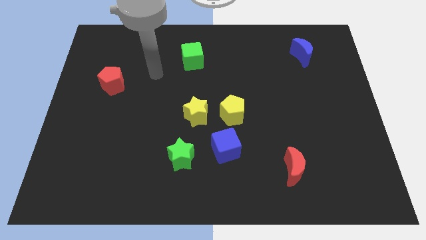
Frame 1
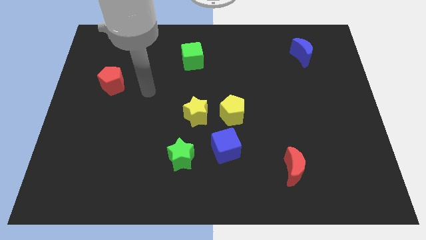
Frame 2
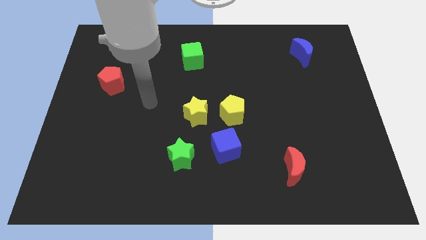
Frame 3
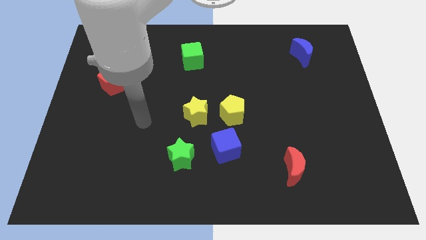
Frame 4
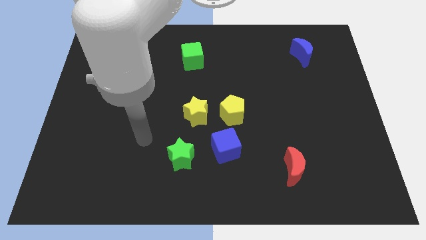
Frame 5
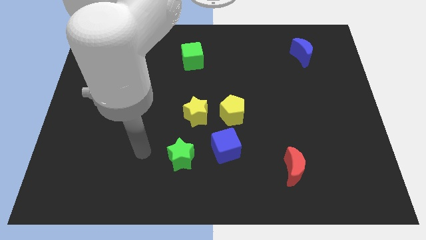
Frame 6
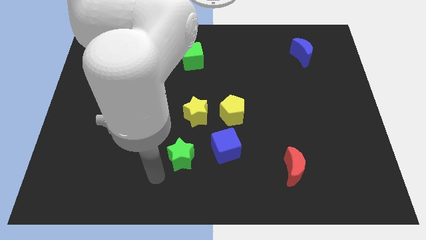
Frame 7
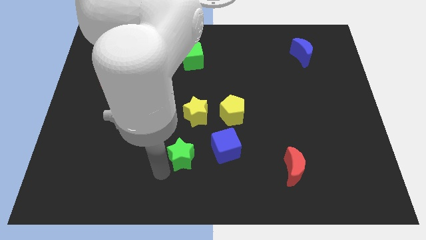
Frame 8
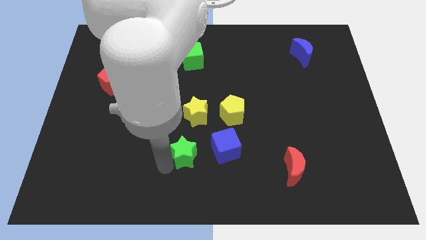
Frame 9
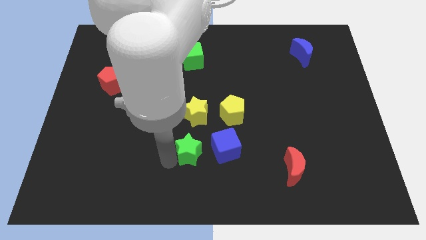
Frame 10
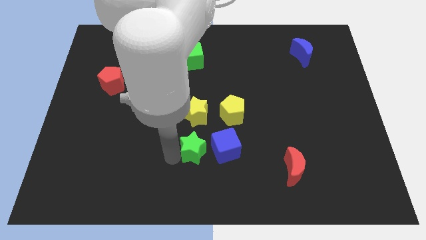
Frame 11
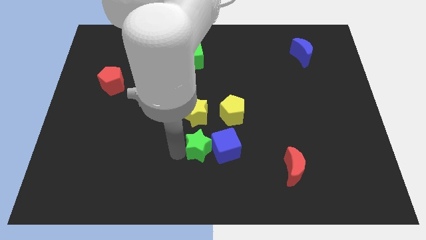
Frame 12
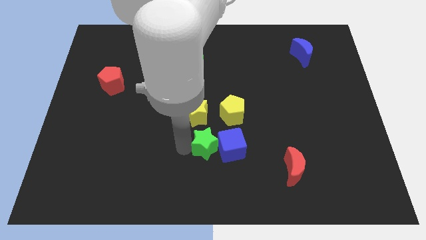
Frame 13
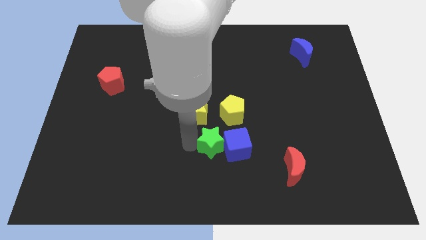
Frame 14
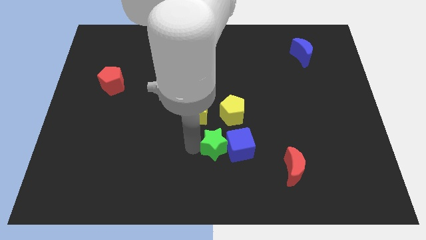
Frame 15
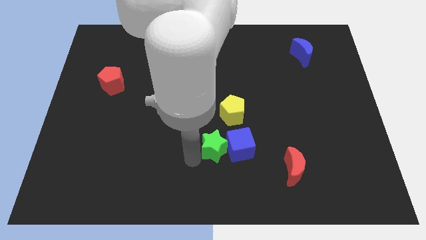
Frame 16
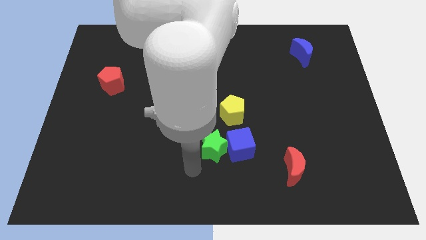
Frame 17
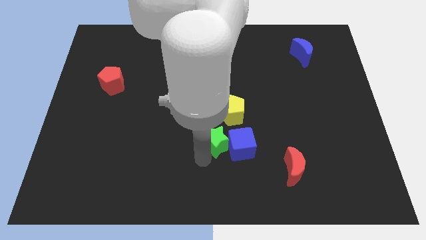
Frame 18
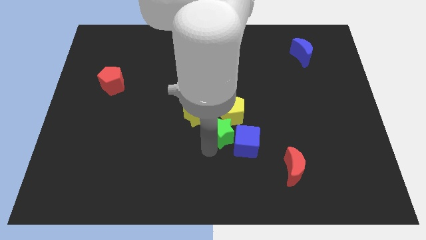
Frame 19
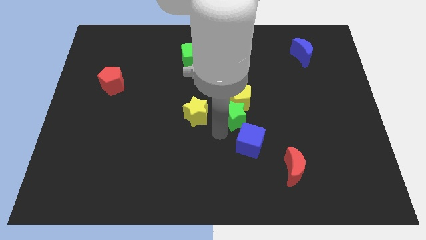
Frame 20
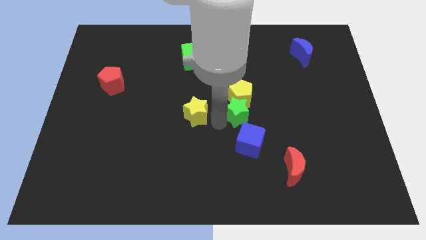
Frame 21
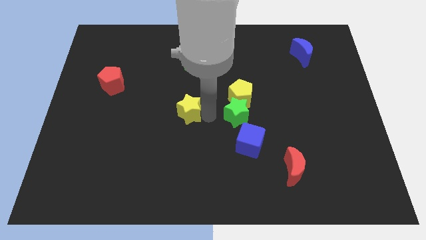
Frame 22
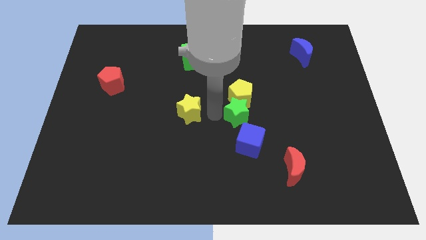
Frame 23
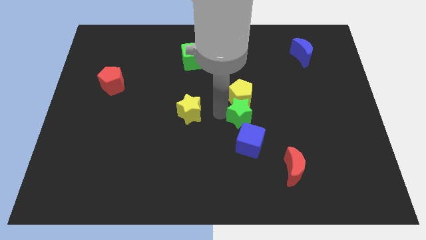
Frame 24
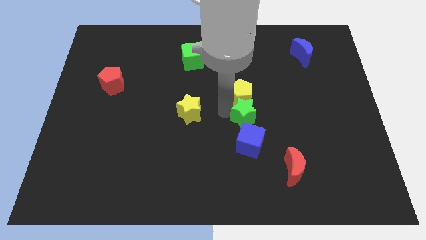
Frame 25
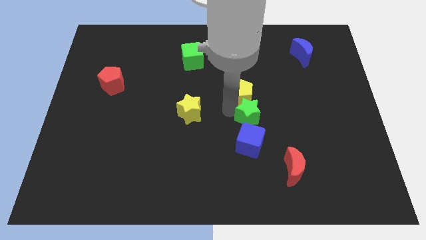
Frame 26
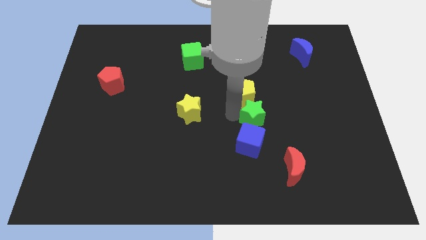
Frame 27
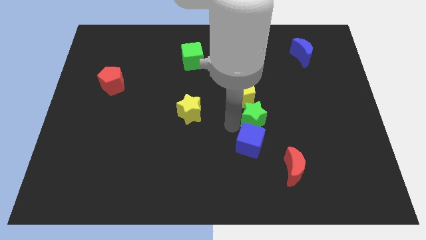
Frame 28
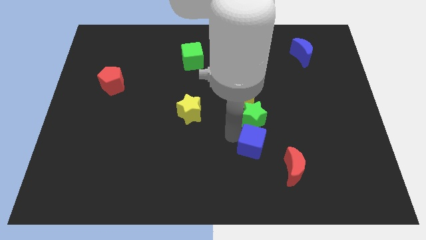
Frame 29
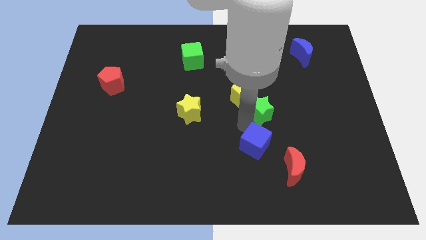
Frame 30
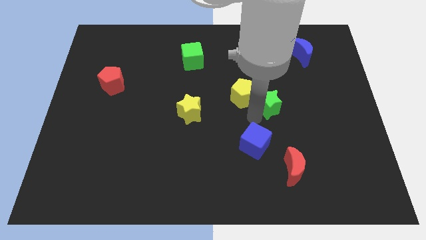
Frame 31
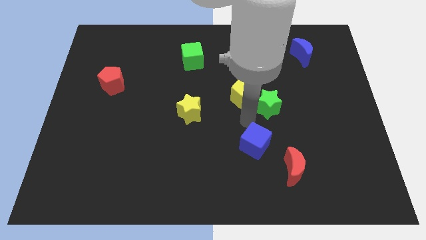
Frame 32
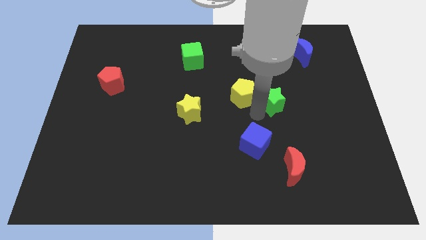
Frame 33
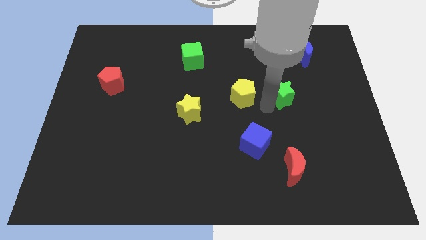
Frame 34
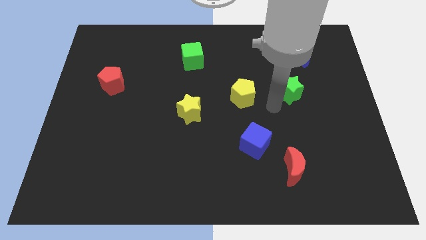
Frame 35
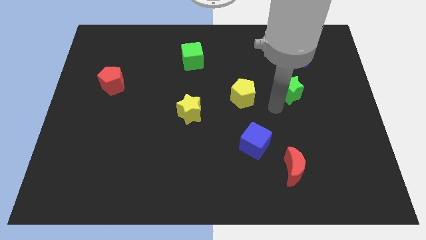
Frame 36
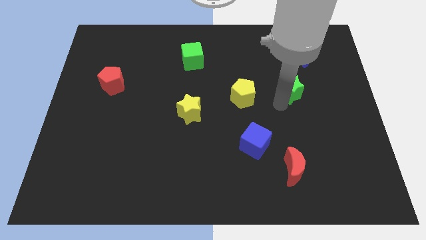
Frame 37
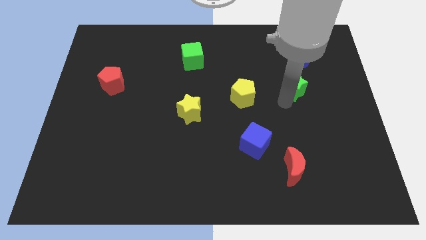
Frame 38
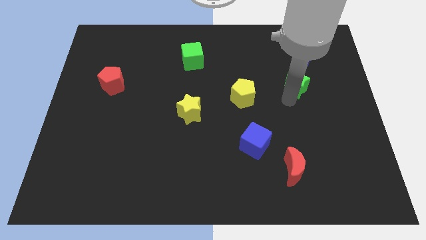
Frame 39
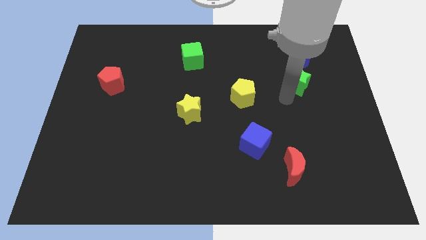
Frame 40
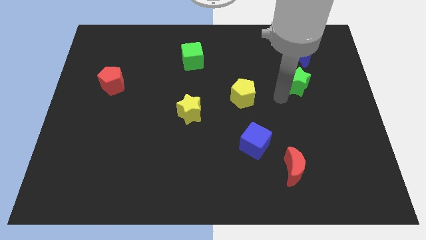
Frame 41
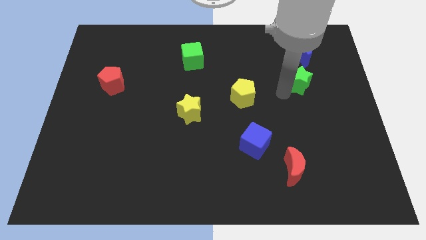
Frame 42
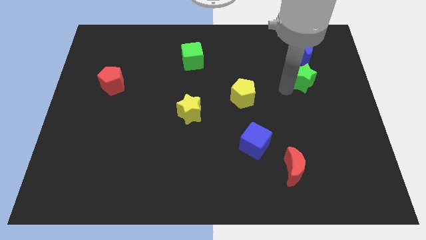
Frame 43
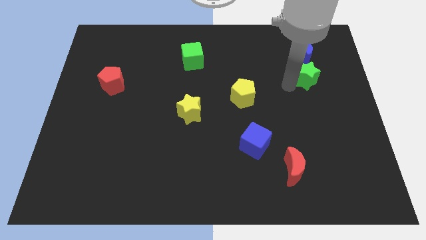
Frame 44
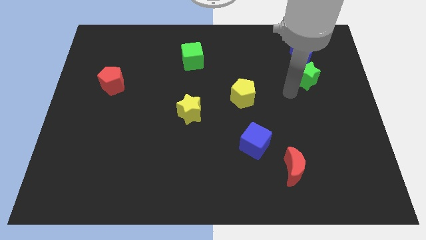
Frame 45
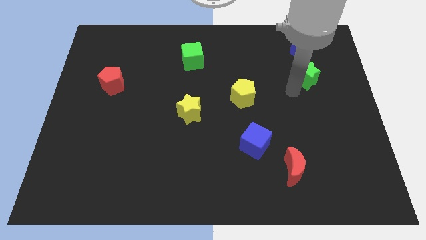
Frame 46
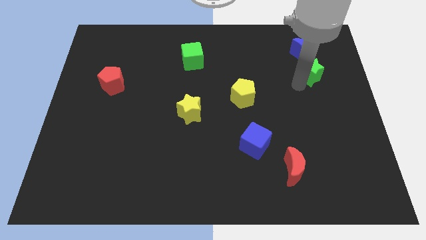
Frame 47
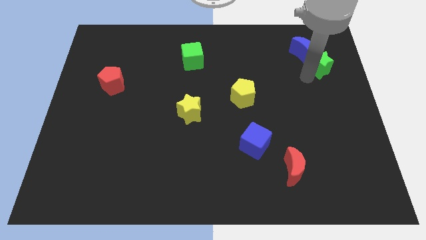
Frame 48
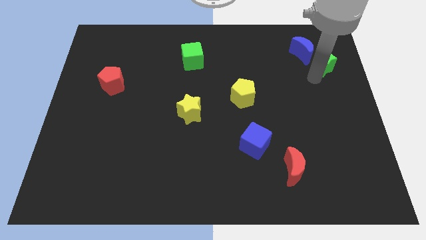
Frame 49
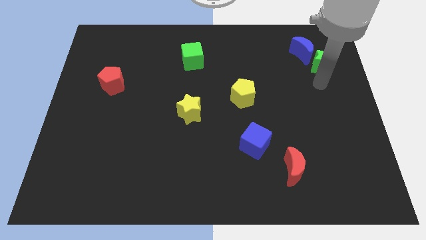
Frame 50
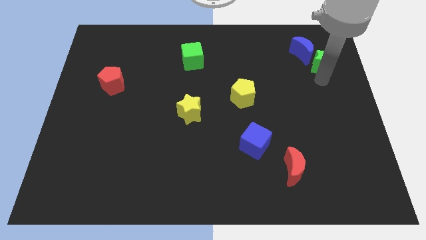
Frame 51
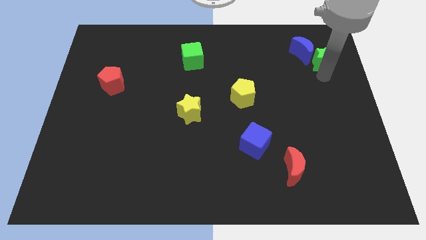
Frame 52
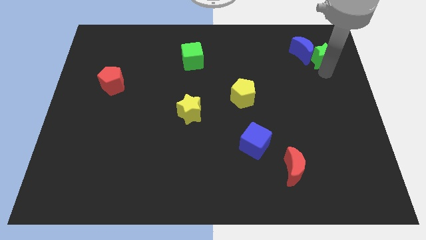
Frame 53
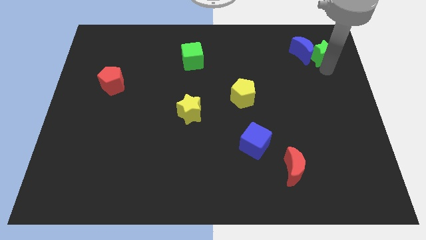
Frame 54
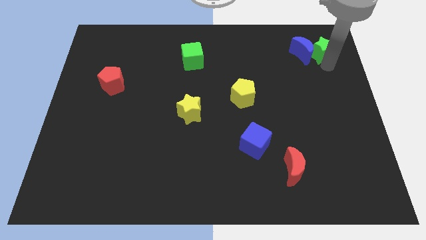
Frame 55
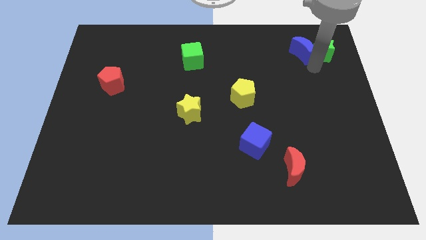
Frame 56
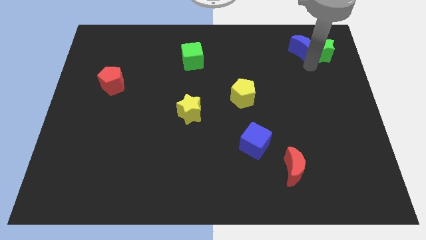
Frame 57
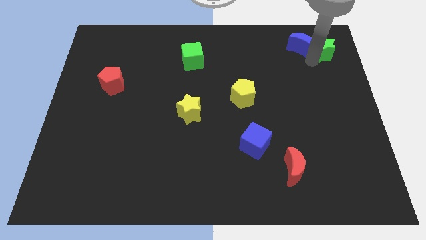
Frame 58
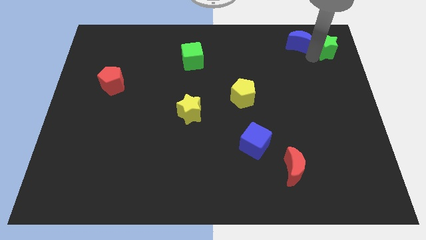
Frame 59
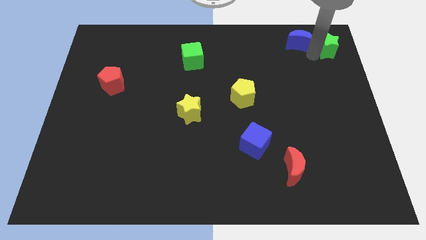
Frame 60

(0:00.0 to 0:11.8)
slide the green star to the upper right corner

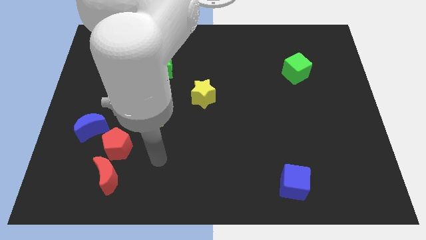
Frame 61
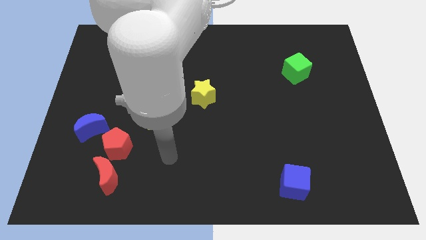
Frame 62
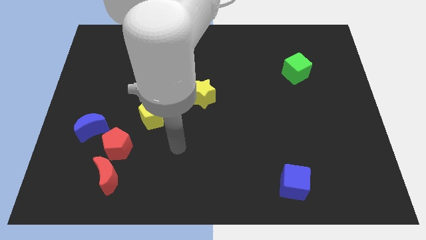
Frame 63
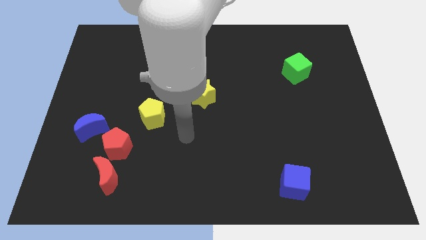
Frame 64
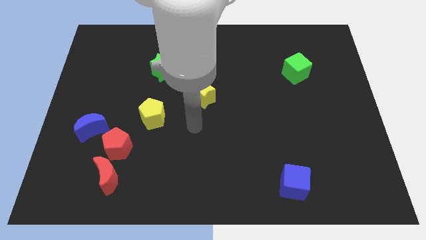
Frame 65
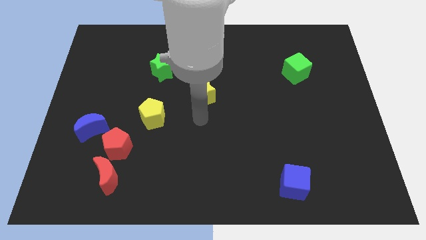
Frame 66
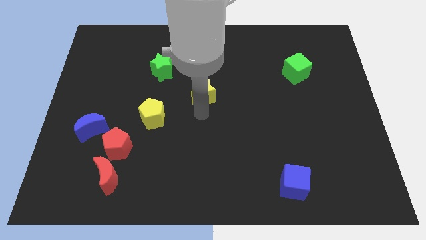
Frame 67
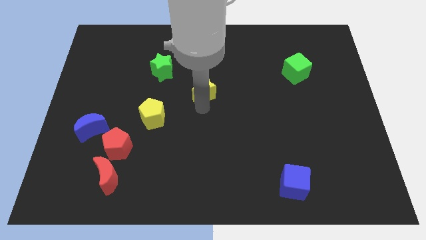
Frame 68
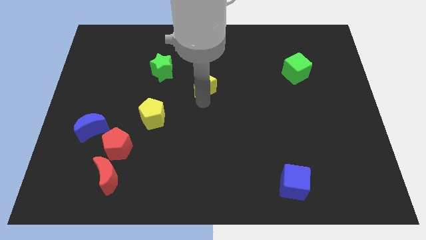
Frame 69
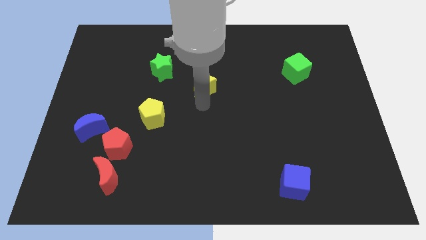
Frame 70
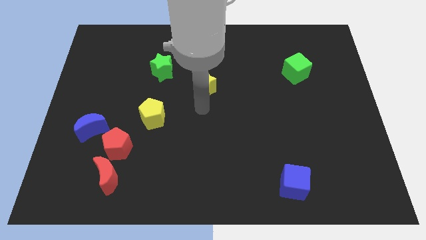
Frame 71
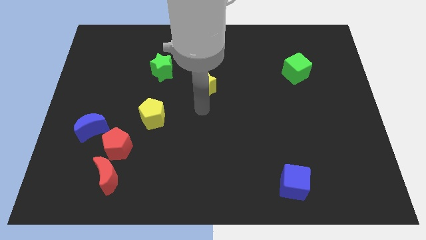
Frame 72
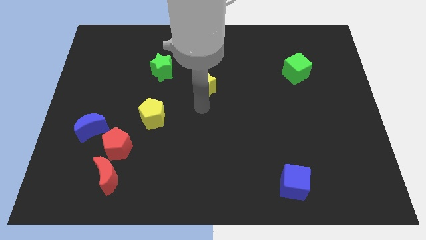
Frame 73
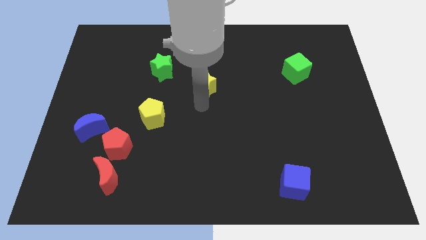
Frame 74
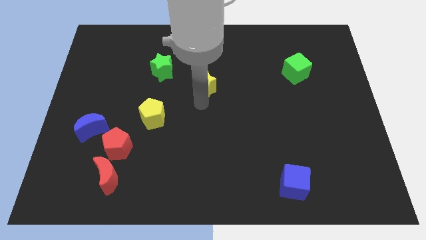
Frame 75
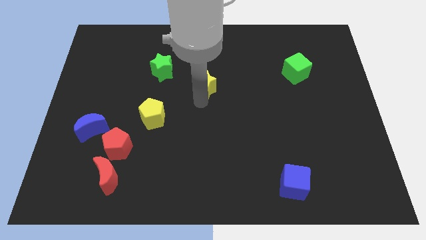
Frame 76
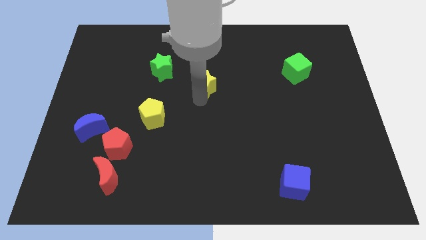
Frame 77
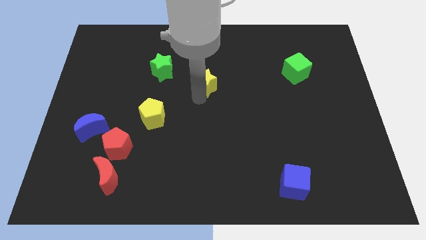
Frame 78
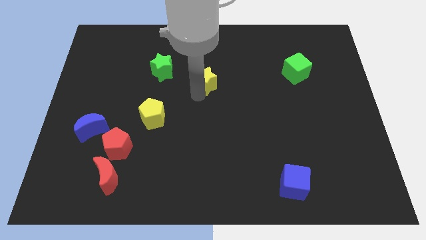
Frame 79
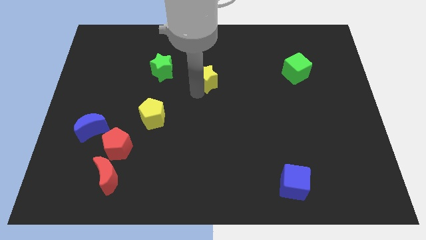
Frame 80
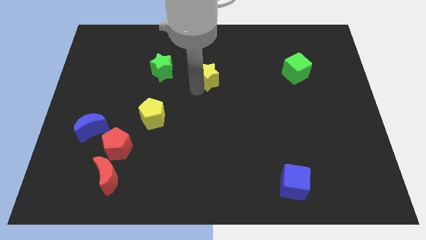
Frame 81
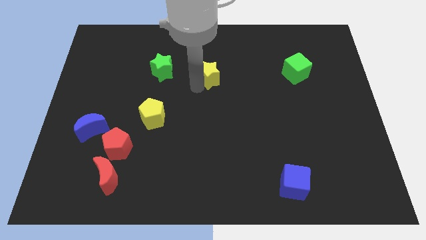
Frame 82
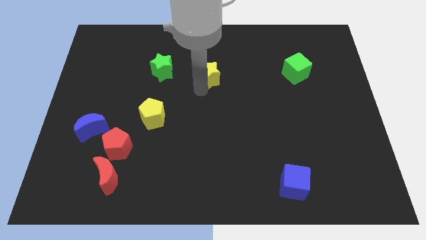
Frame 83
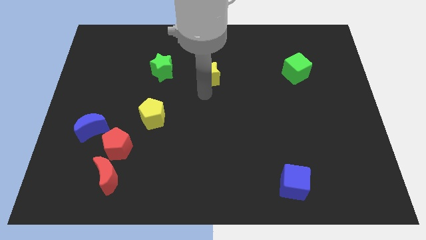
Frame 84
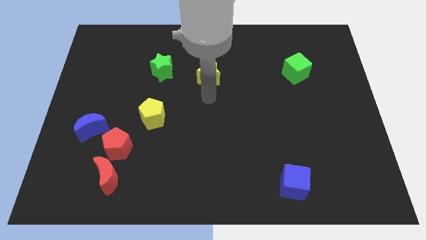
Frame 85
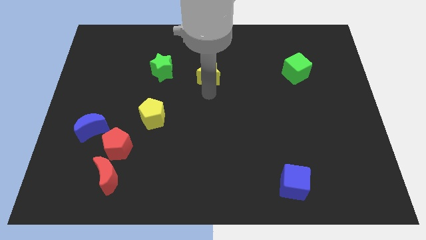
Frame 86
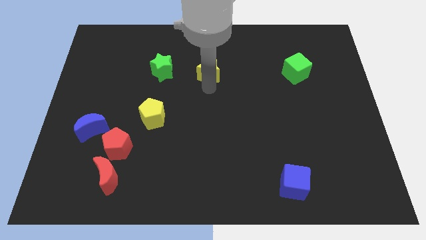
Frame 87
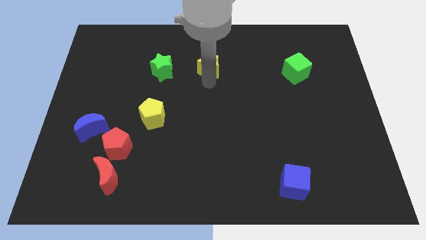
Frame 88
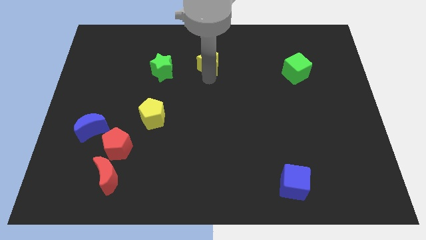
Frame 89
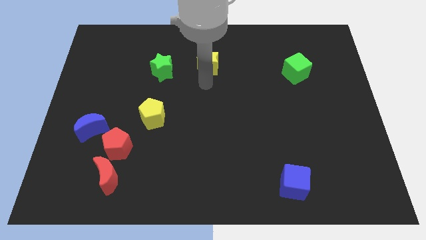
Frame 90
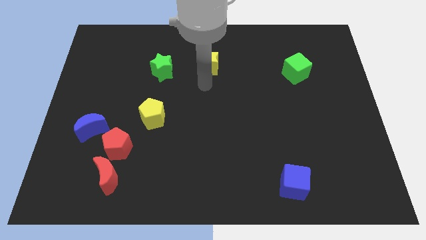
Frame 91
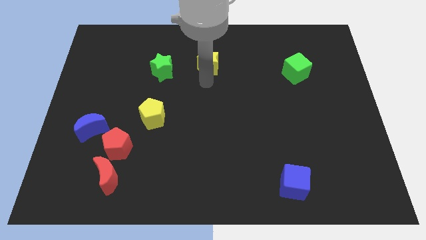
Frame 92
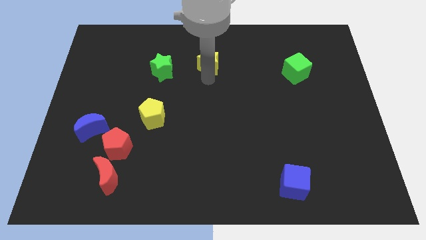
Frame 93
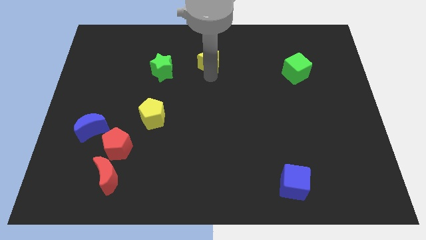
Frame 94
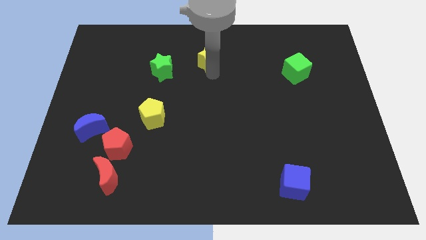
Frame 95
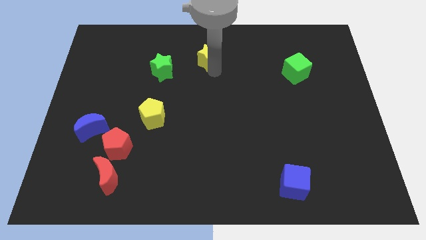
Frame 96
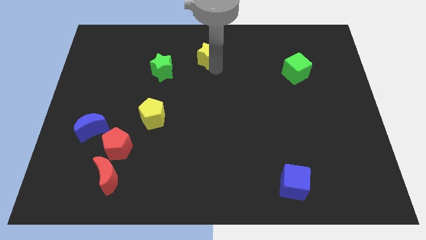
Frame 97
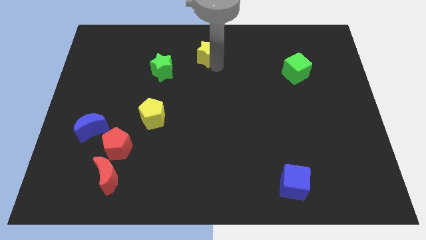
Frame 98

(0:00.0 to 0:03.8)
push the yellow star to the towards your base
